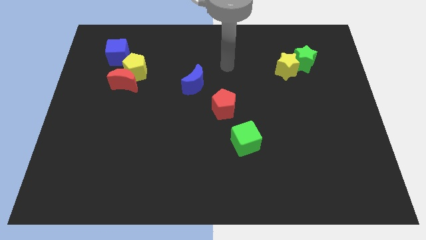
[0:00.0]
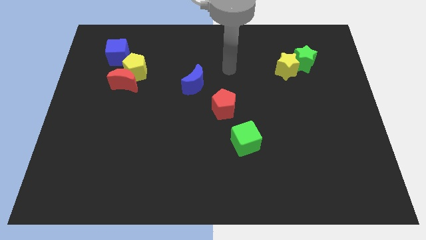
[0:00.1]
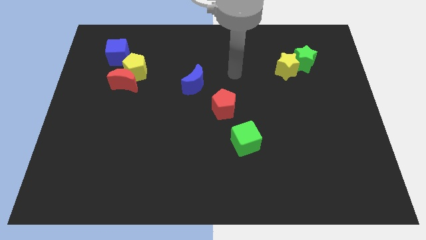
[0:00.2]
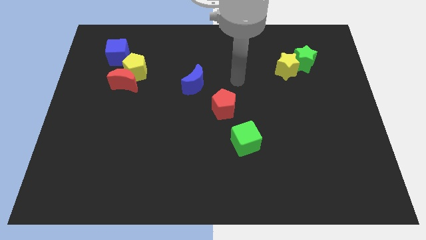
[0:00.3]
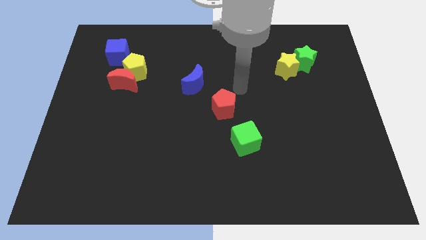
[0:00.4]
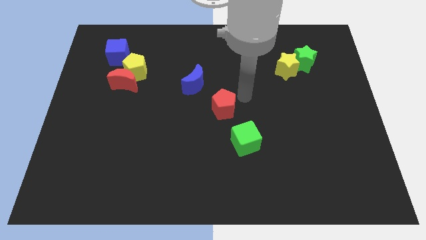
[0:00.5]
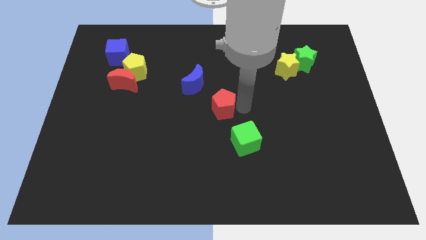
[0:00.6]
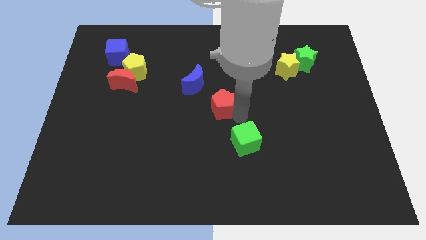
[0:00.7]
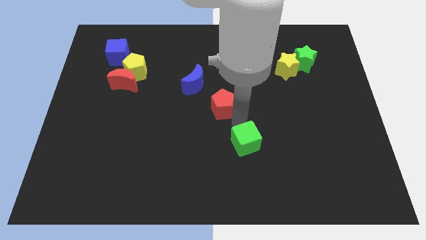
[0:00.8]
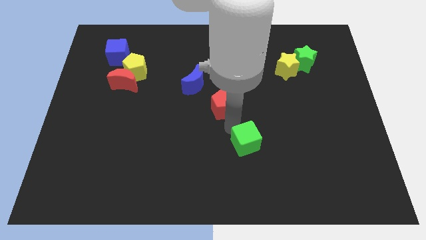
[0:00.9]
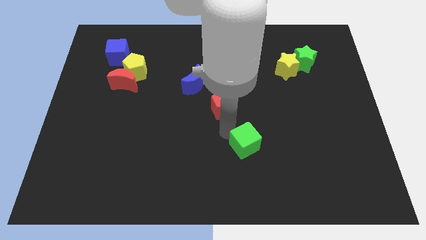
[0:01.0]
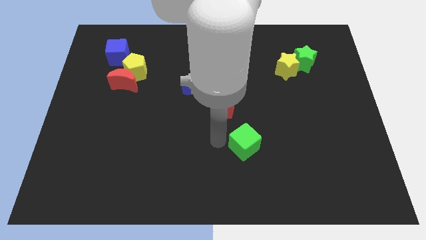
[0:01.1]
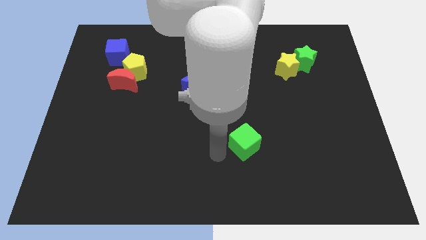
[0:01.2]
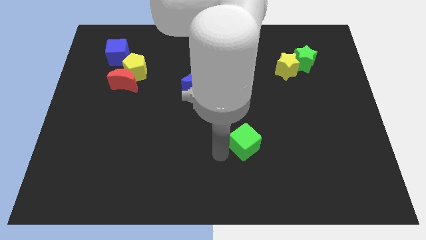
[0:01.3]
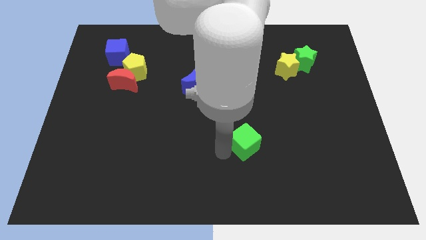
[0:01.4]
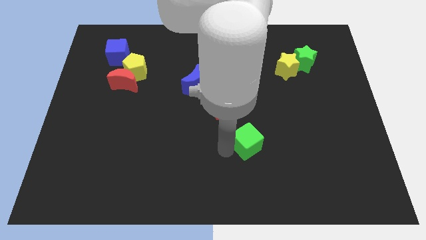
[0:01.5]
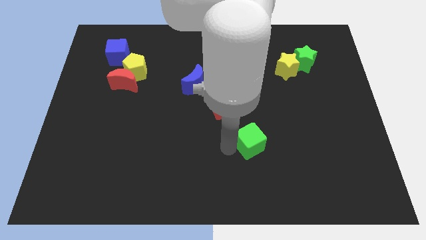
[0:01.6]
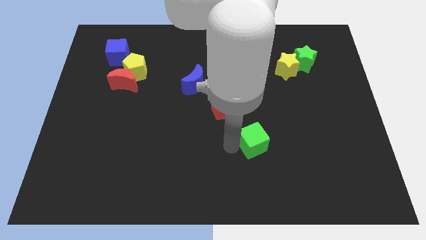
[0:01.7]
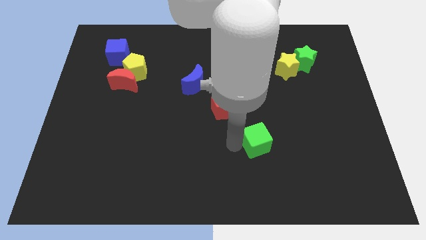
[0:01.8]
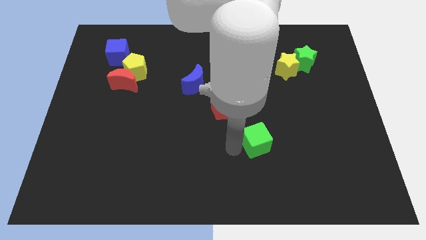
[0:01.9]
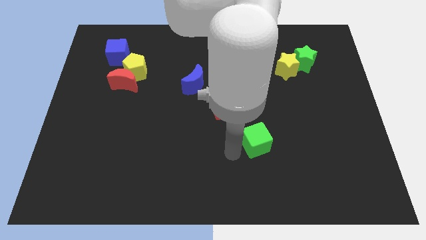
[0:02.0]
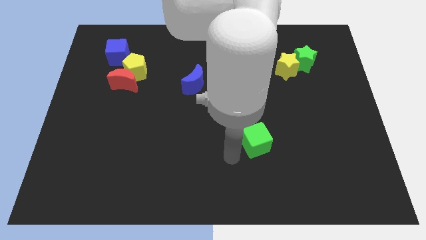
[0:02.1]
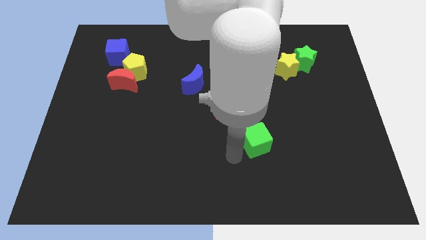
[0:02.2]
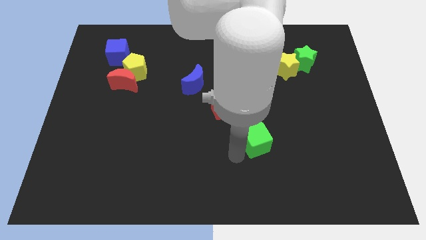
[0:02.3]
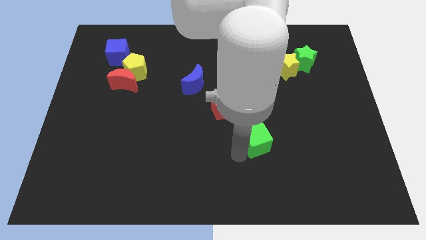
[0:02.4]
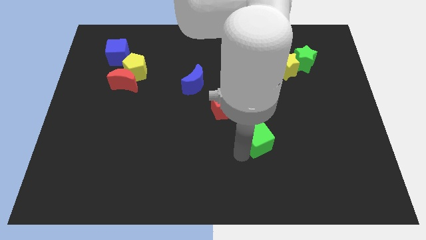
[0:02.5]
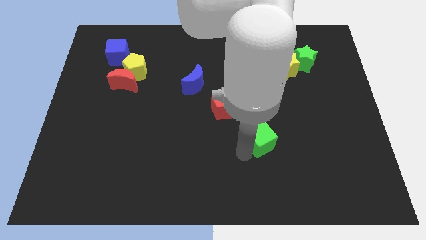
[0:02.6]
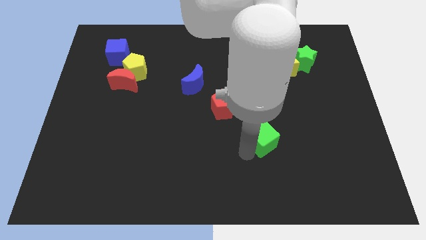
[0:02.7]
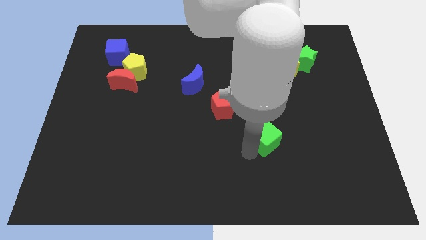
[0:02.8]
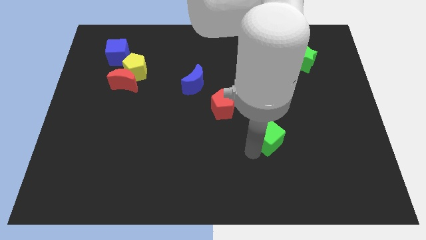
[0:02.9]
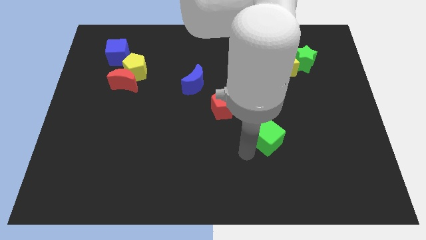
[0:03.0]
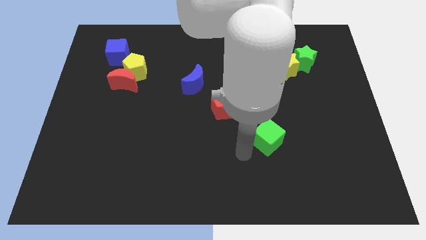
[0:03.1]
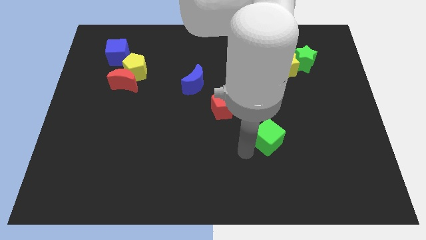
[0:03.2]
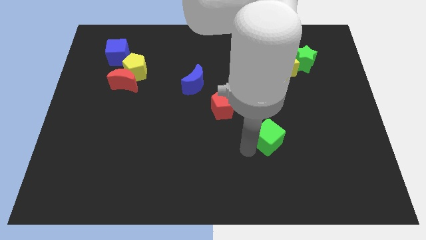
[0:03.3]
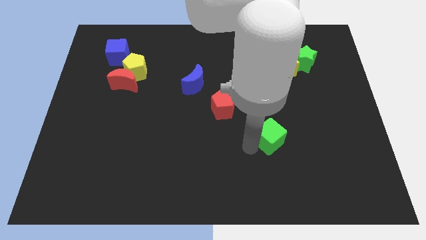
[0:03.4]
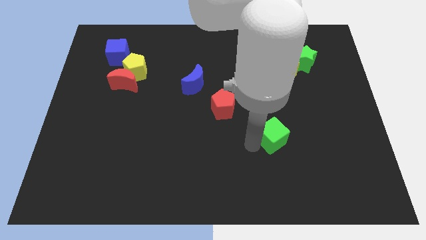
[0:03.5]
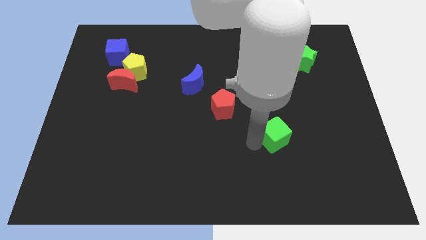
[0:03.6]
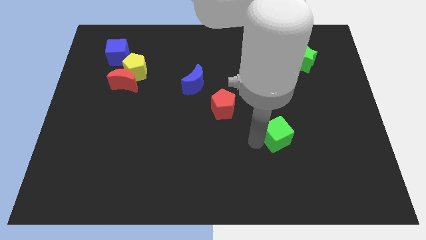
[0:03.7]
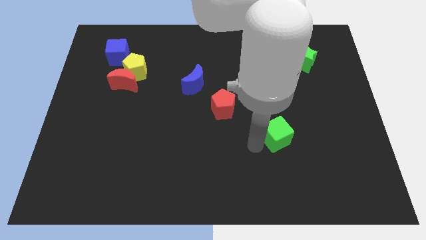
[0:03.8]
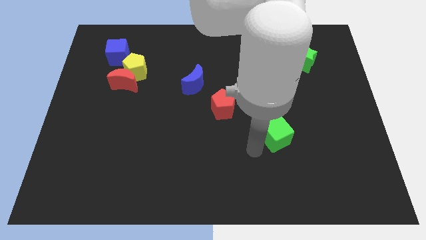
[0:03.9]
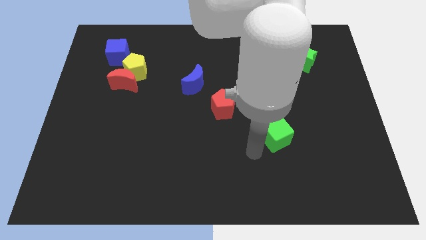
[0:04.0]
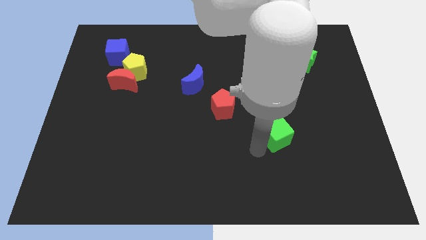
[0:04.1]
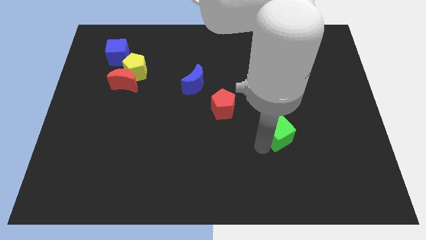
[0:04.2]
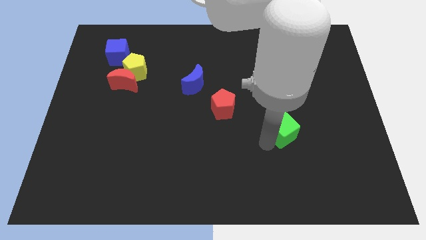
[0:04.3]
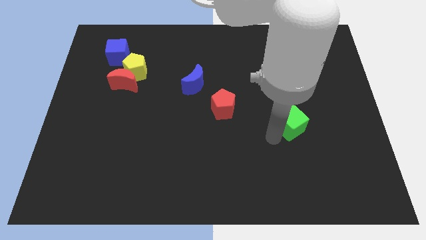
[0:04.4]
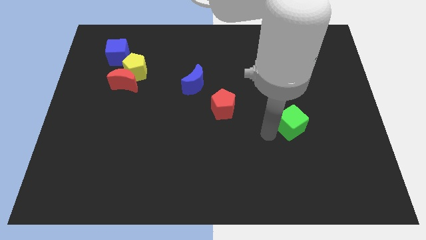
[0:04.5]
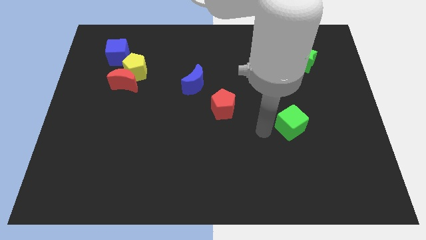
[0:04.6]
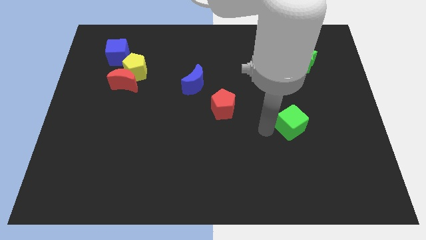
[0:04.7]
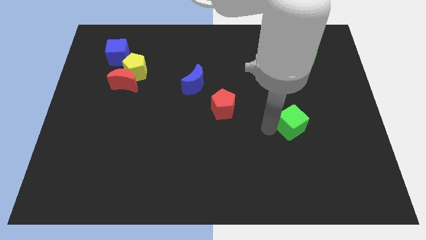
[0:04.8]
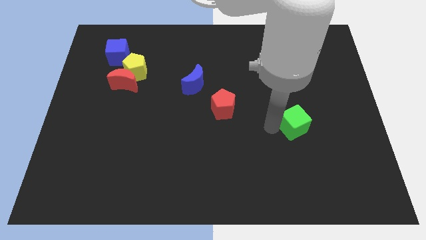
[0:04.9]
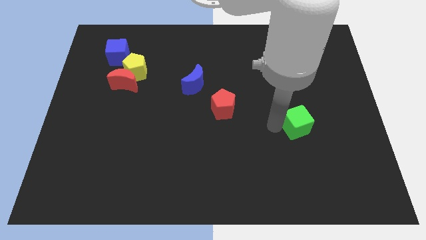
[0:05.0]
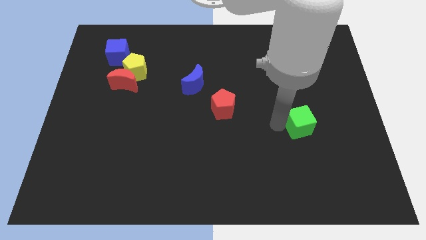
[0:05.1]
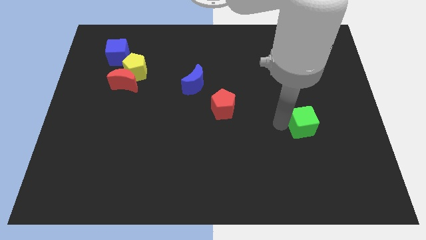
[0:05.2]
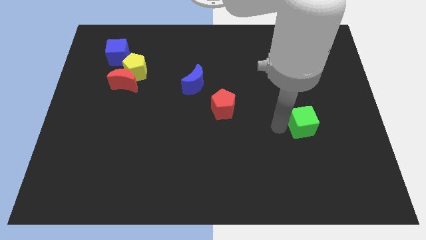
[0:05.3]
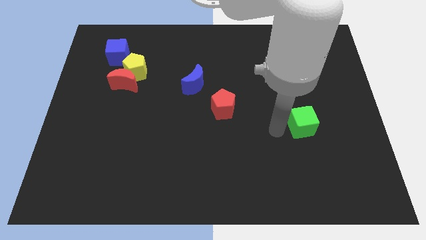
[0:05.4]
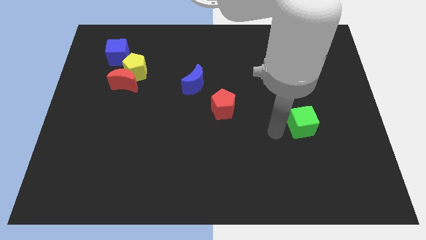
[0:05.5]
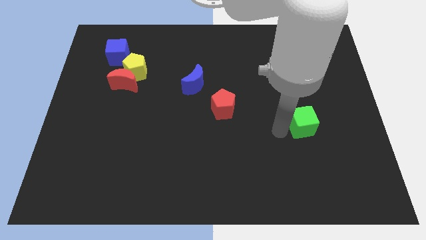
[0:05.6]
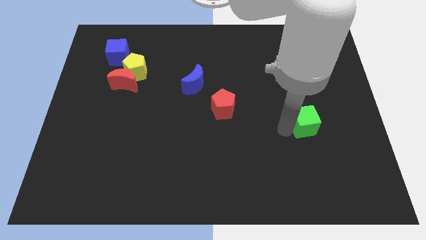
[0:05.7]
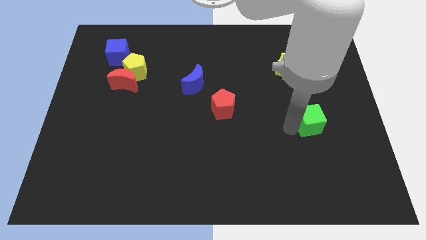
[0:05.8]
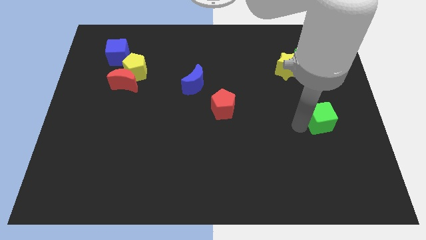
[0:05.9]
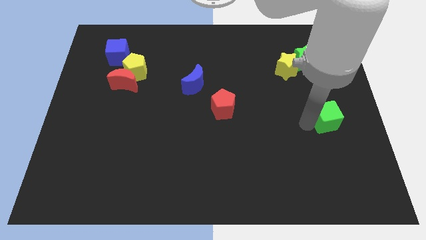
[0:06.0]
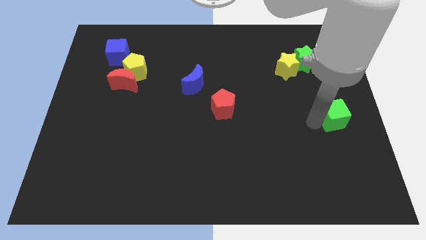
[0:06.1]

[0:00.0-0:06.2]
slide the green cube to the center right
